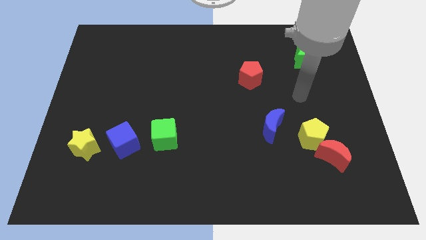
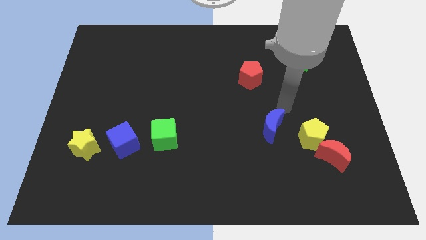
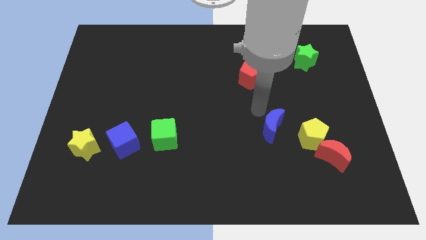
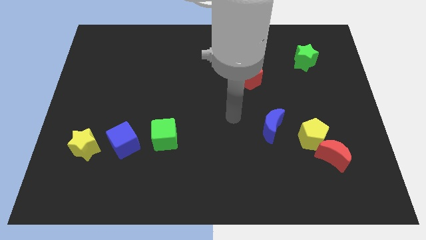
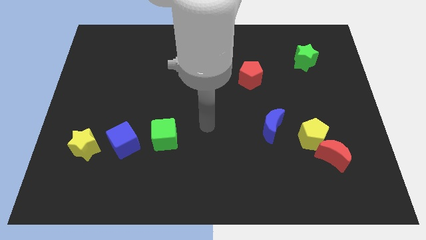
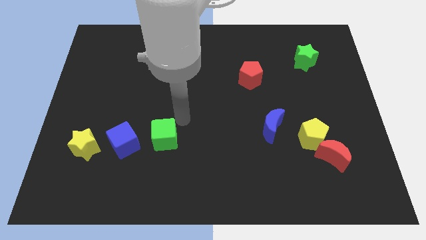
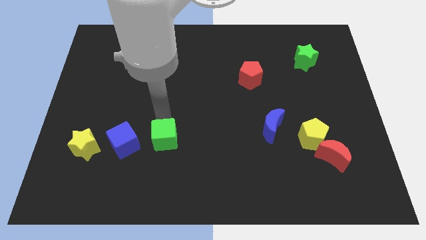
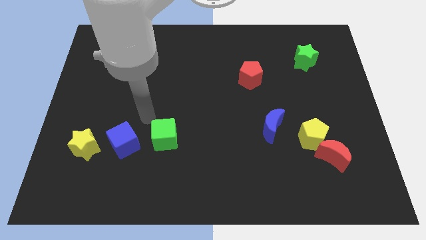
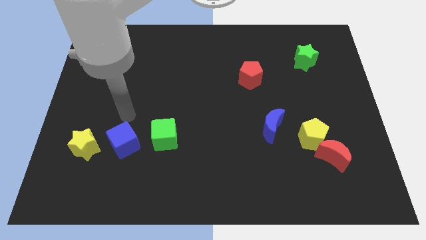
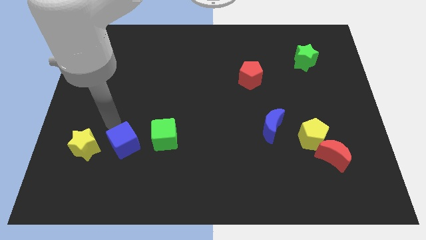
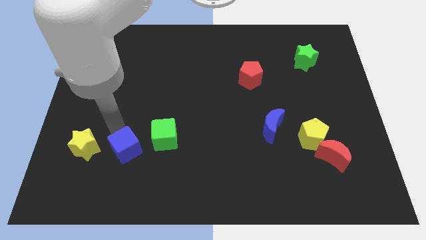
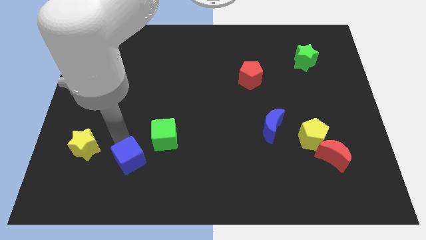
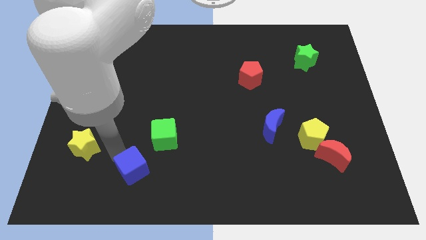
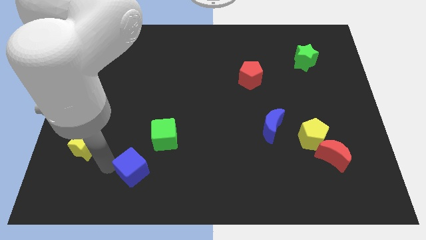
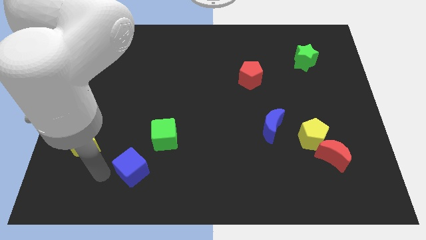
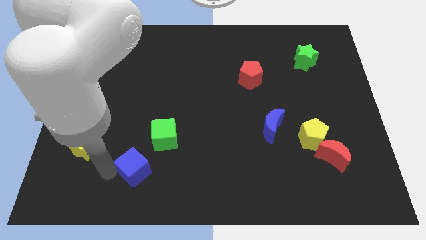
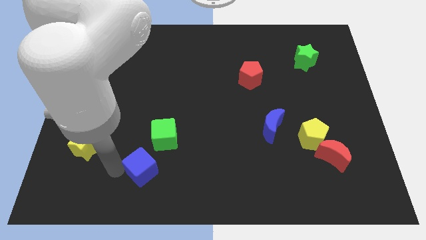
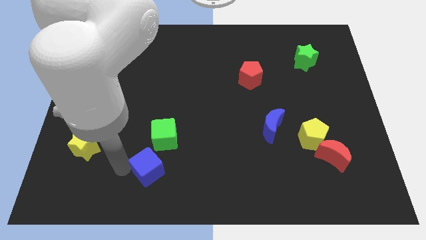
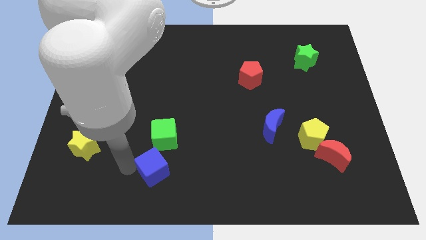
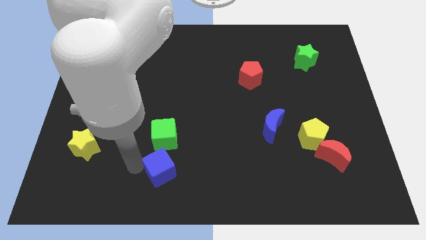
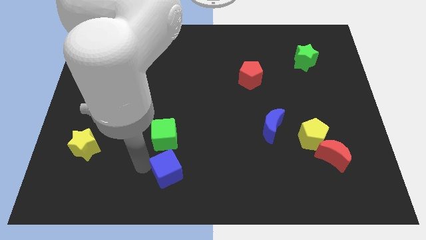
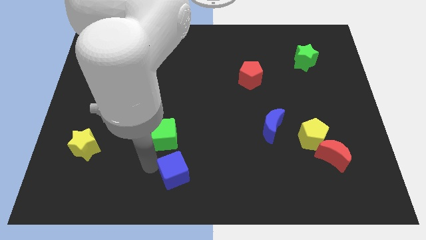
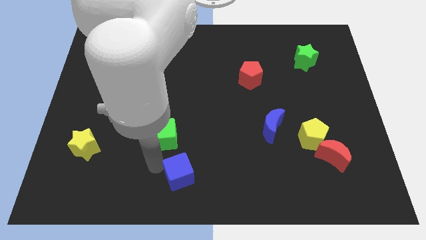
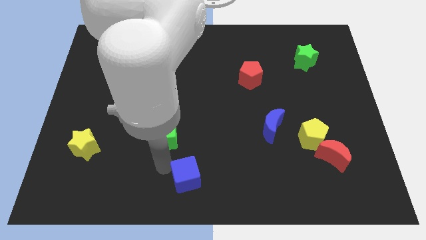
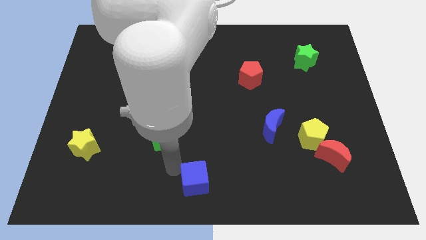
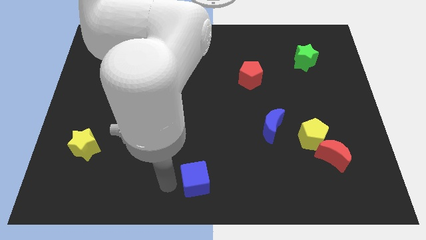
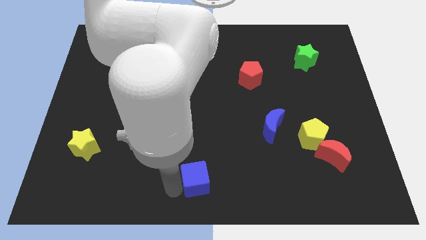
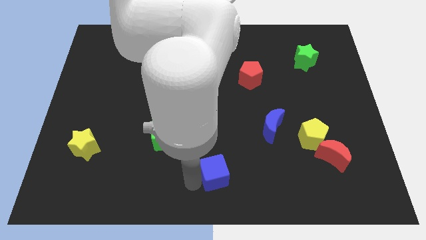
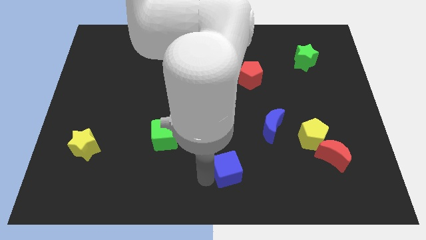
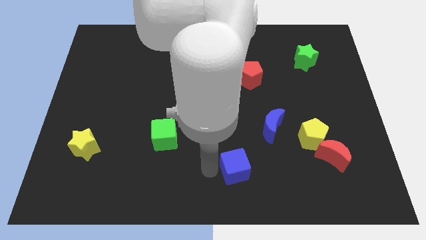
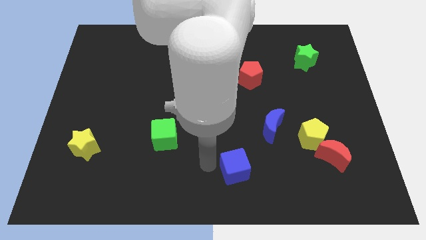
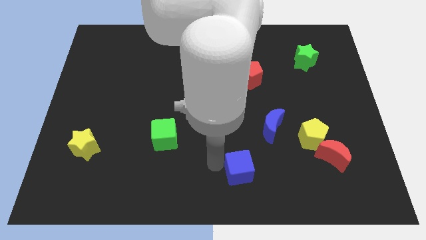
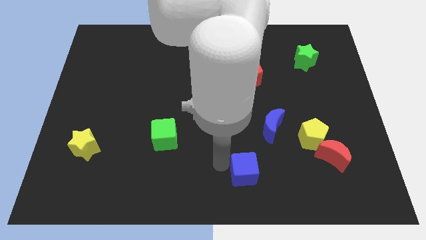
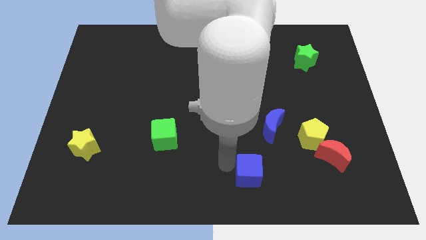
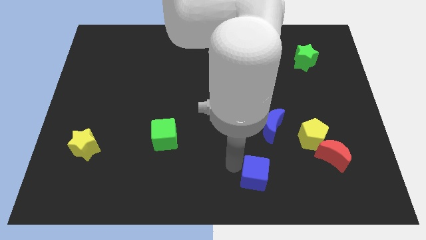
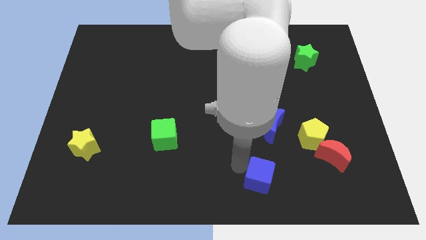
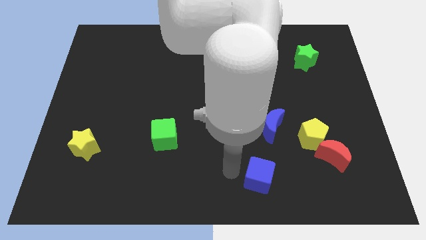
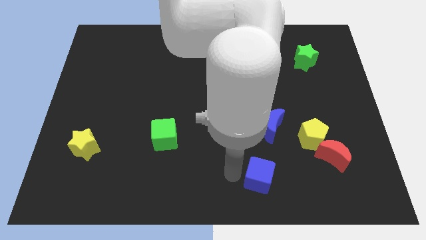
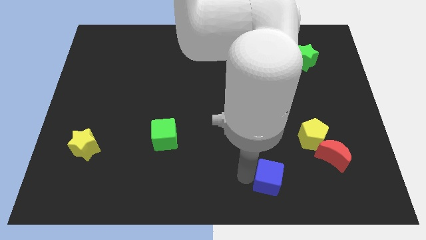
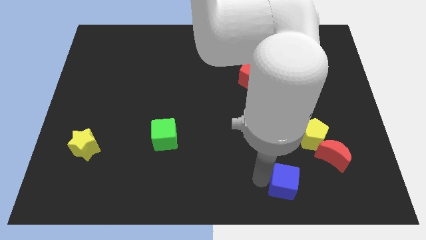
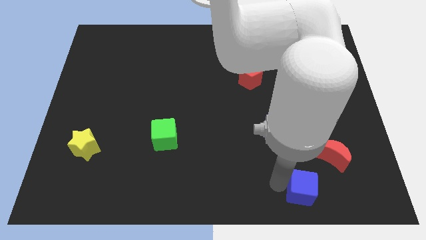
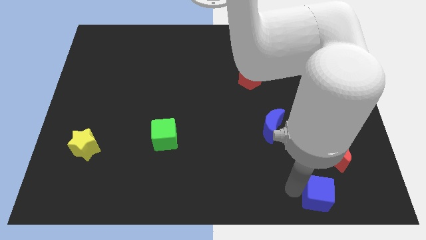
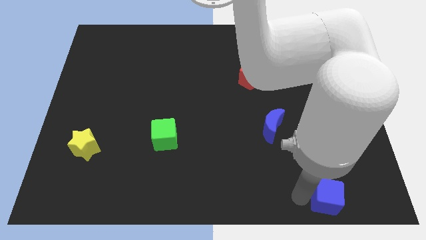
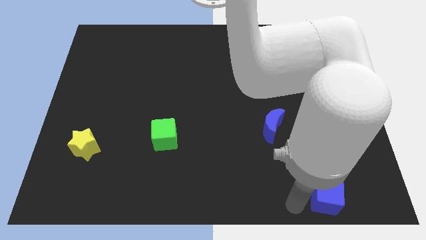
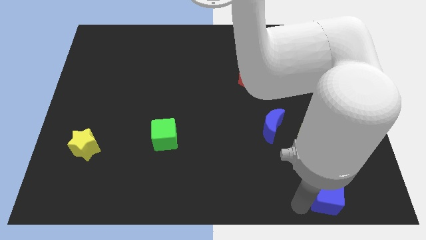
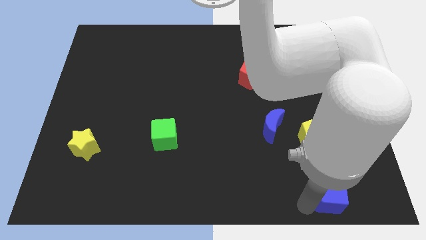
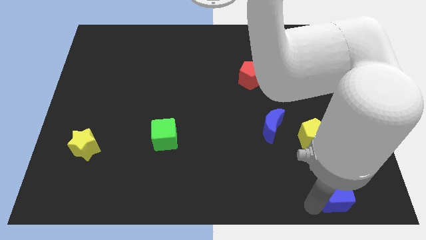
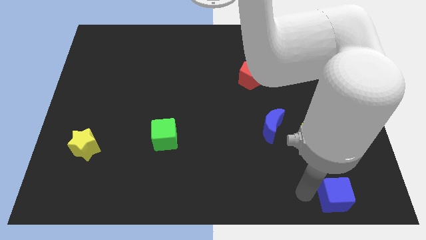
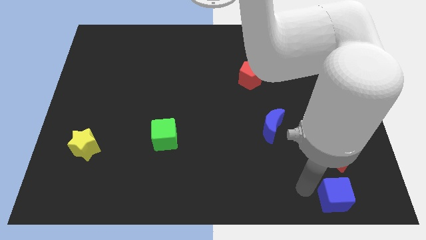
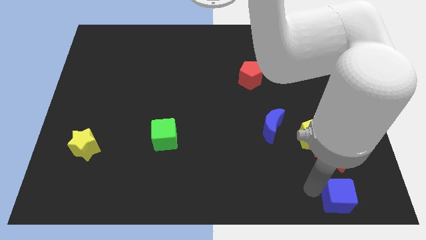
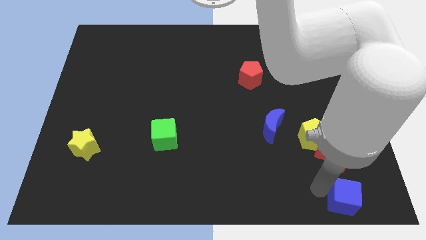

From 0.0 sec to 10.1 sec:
slide the blue cube to the bottom right

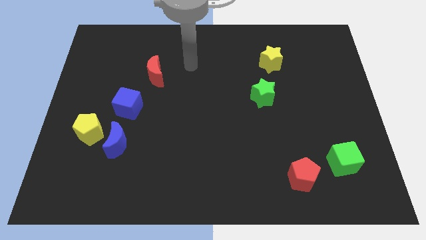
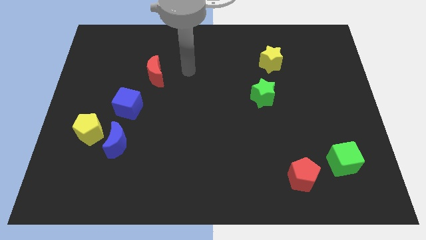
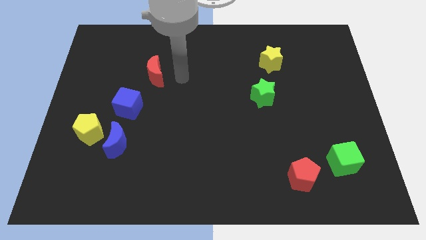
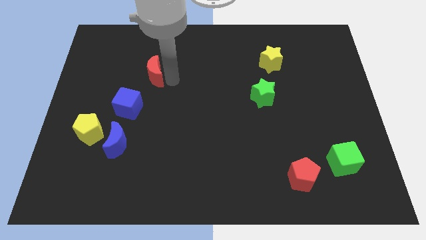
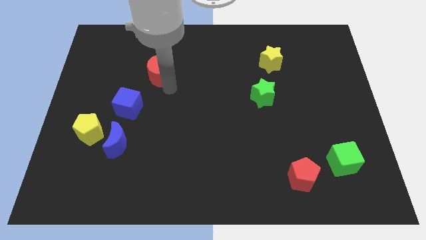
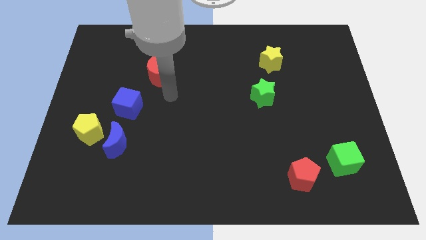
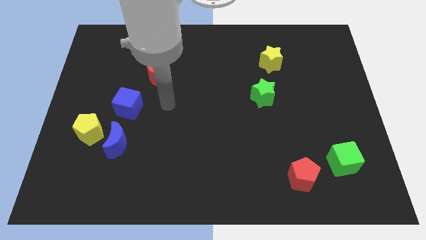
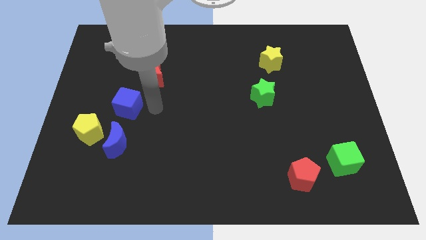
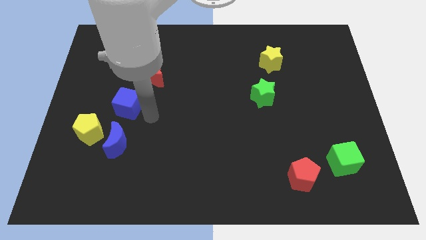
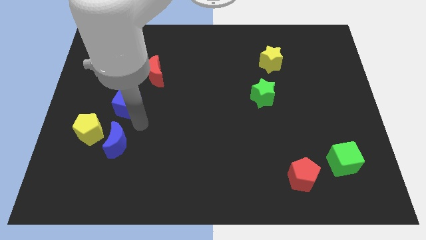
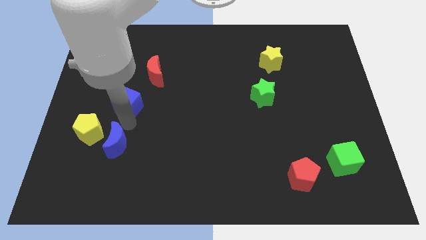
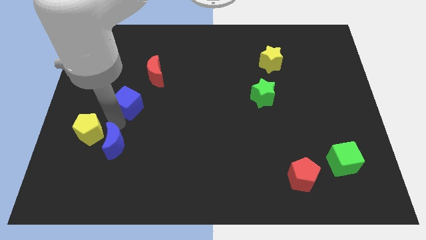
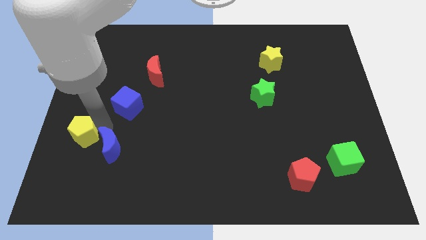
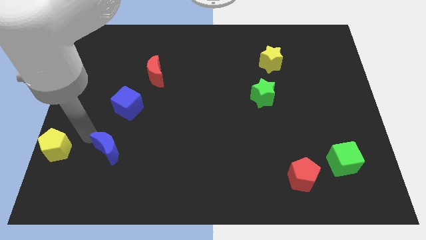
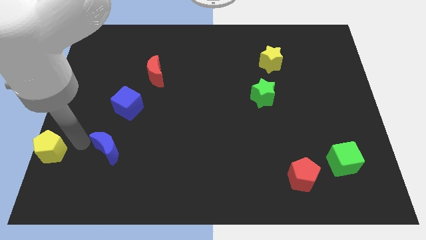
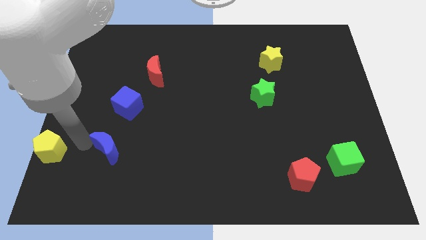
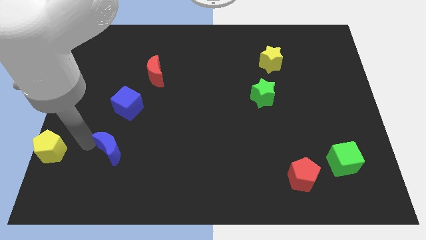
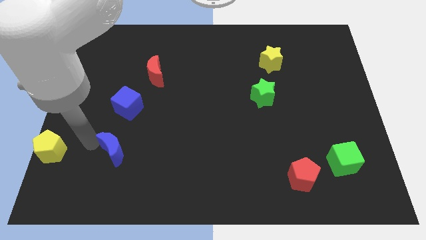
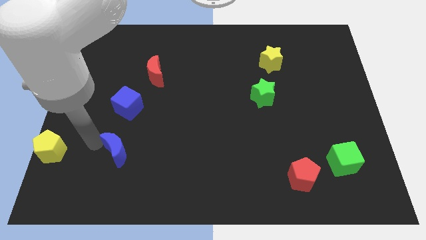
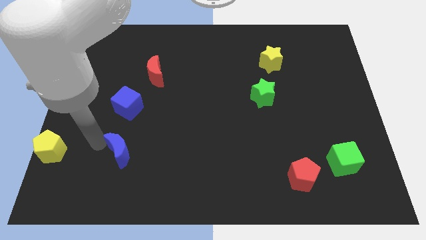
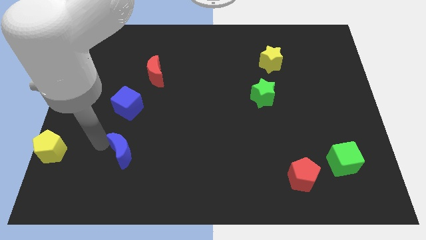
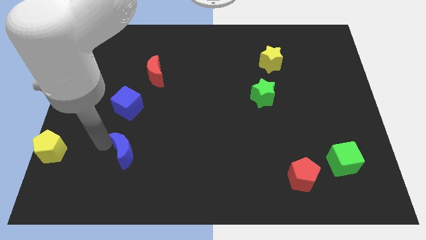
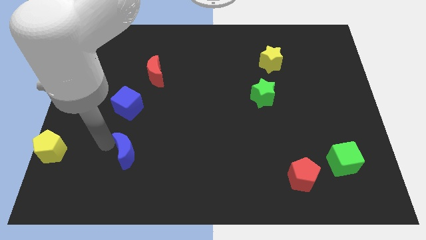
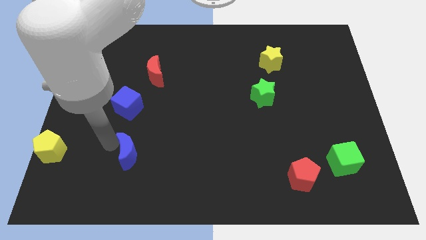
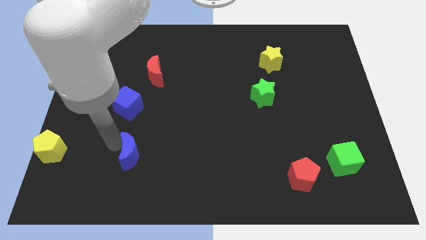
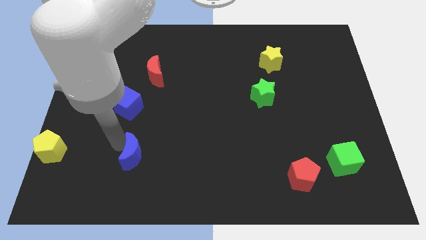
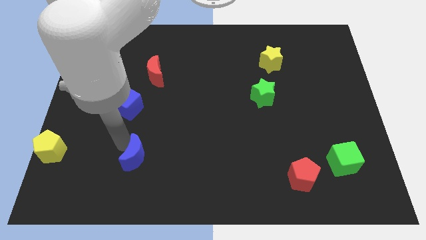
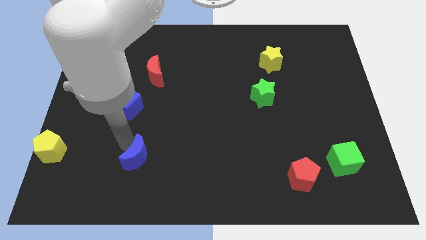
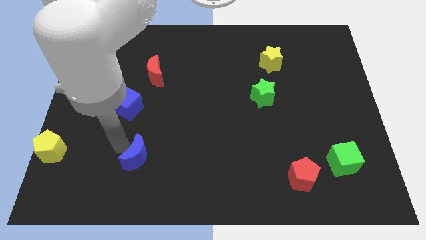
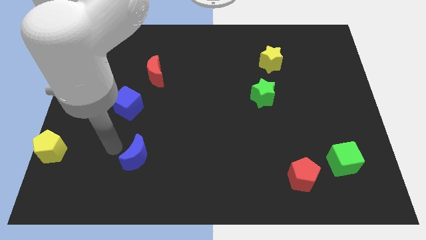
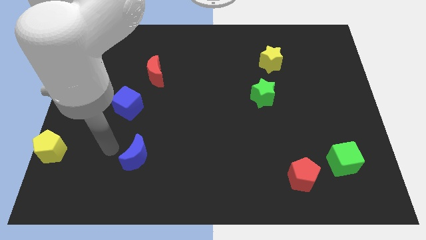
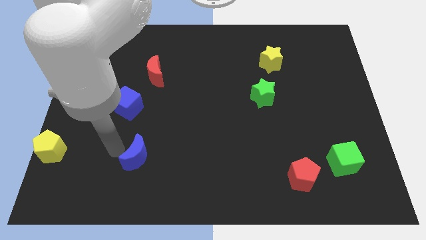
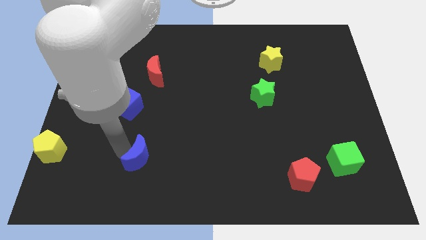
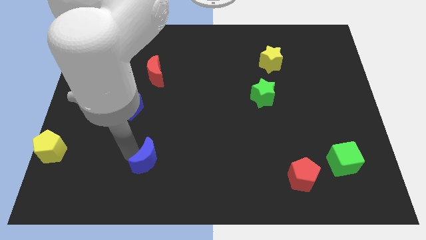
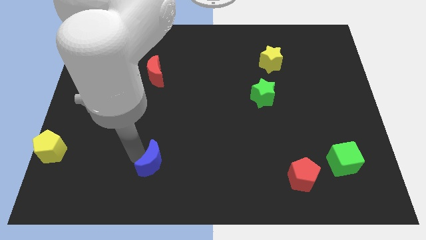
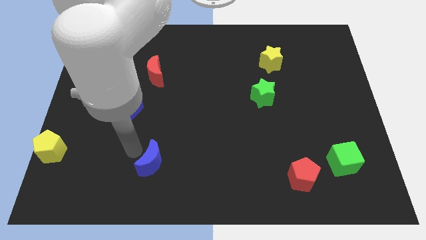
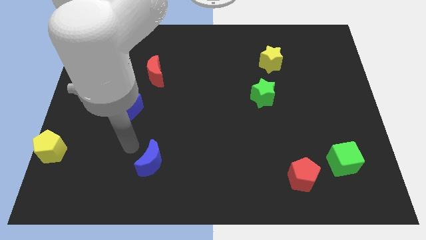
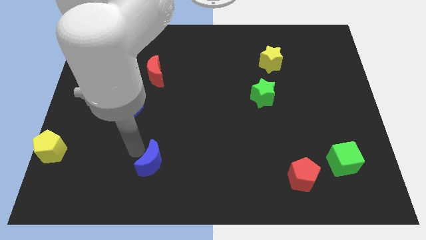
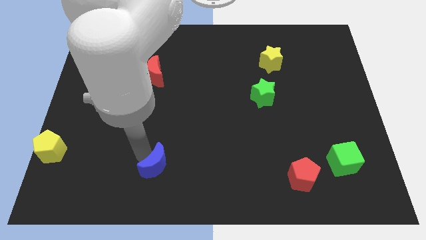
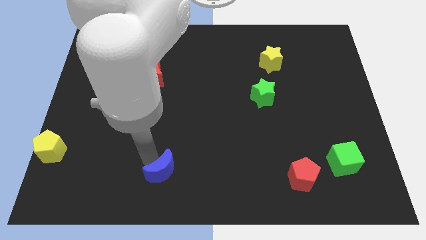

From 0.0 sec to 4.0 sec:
put the blue moon to the bottom side
